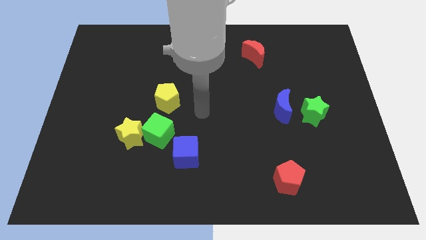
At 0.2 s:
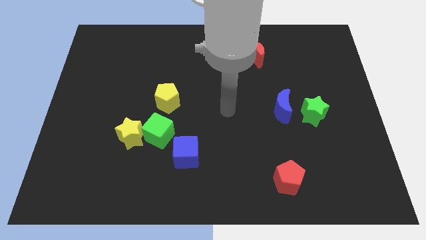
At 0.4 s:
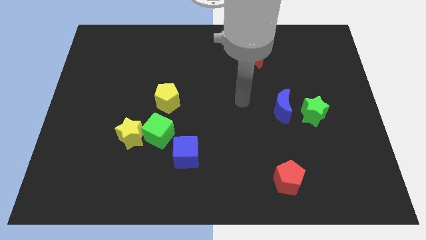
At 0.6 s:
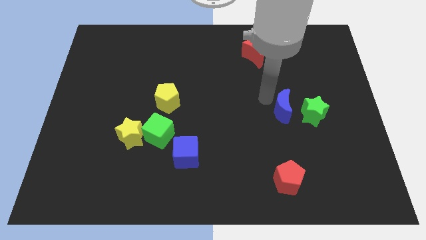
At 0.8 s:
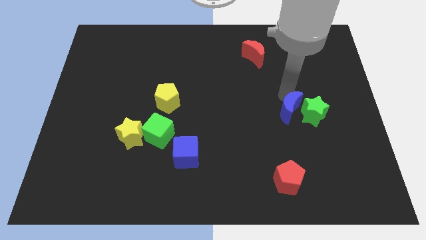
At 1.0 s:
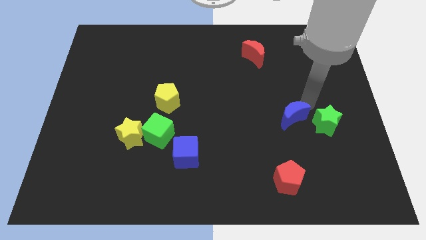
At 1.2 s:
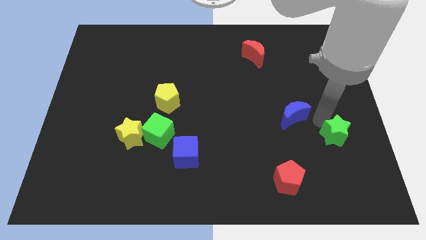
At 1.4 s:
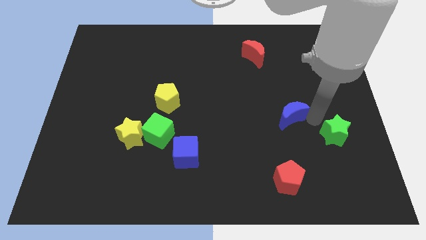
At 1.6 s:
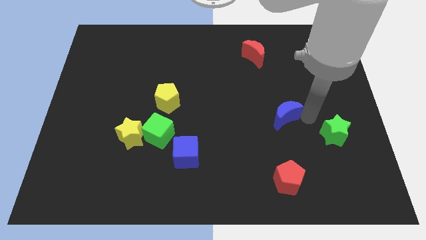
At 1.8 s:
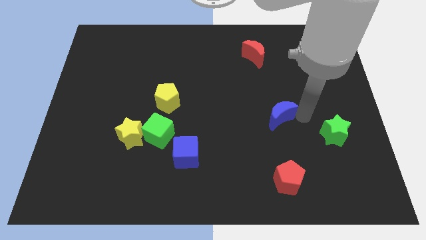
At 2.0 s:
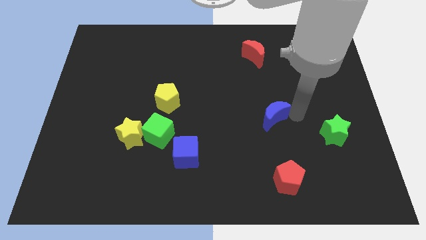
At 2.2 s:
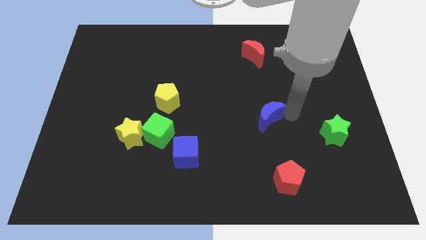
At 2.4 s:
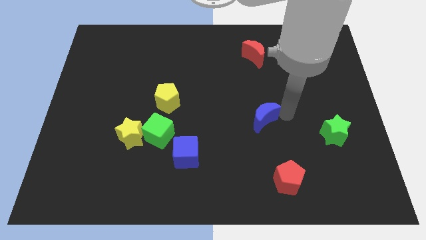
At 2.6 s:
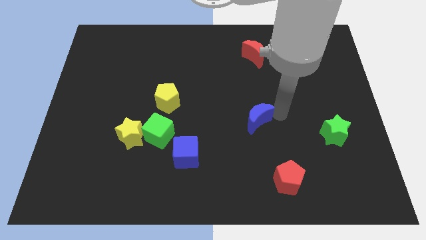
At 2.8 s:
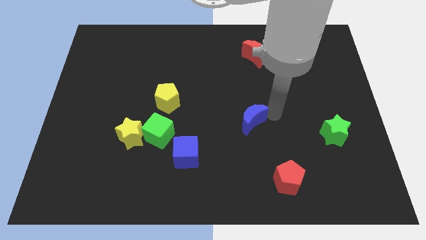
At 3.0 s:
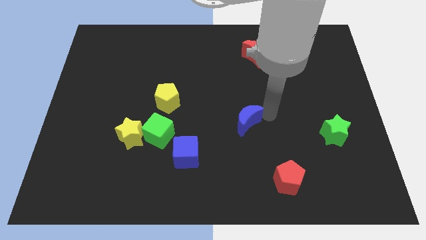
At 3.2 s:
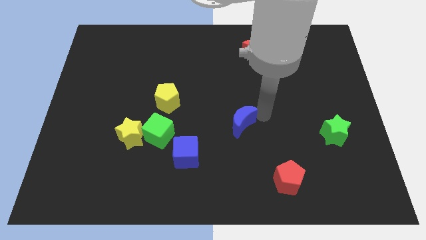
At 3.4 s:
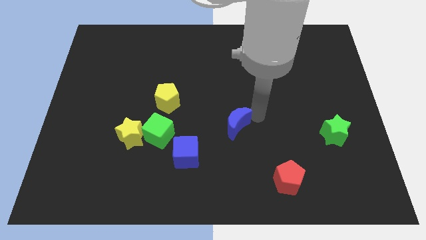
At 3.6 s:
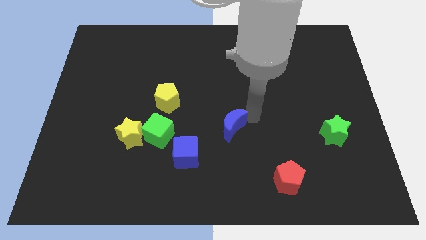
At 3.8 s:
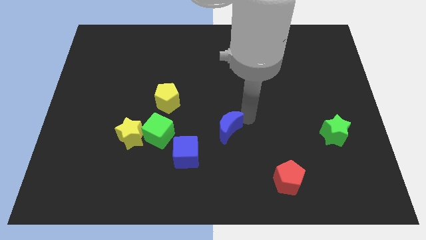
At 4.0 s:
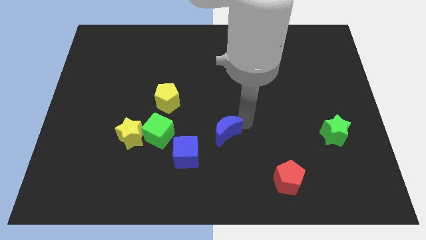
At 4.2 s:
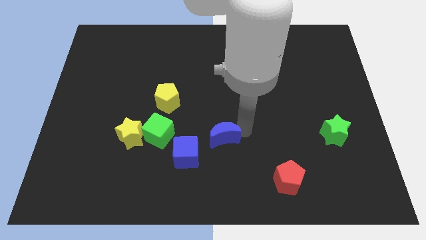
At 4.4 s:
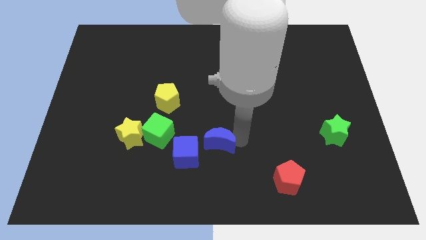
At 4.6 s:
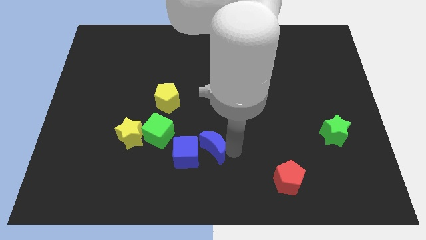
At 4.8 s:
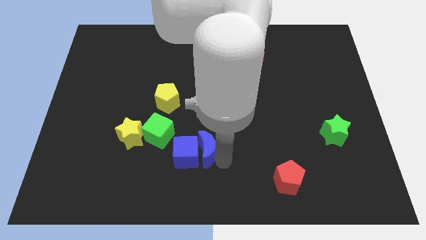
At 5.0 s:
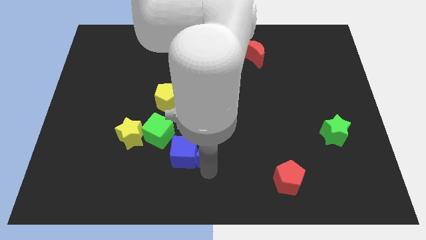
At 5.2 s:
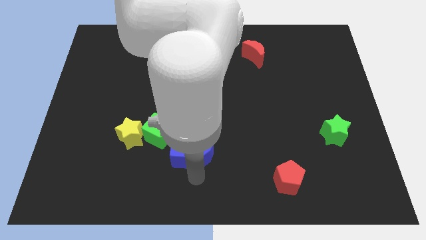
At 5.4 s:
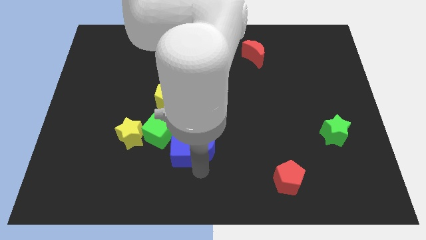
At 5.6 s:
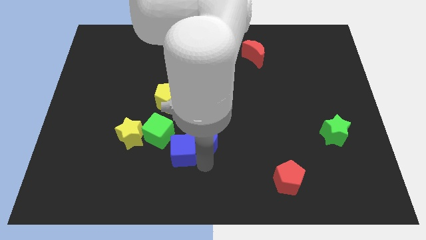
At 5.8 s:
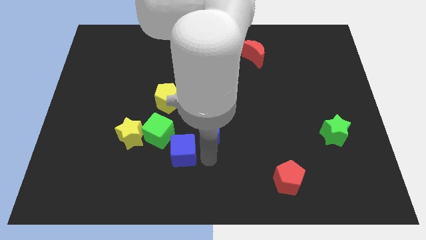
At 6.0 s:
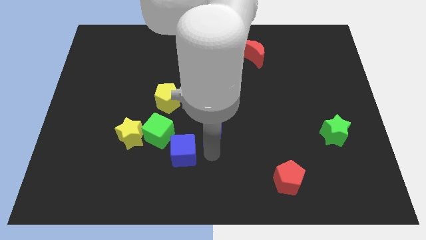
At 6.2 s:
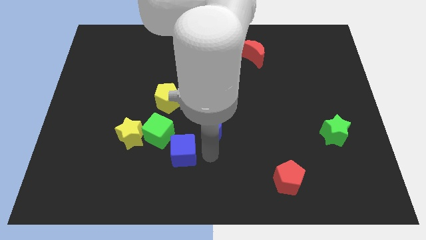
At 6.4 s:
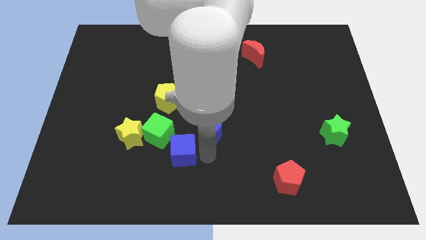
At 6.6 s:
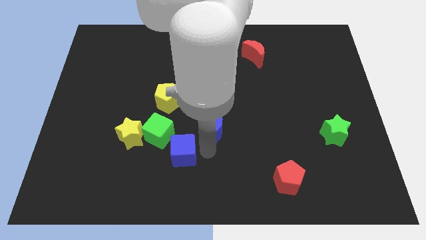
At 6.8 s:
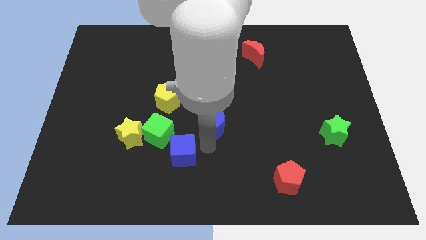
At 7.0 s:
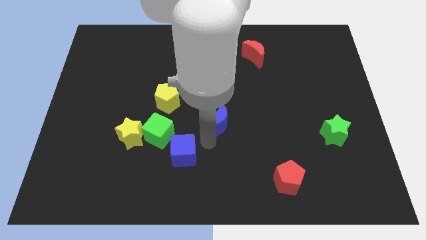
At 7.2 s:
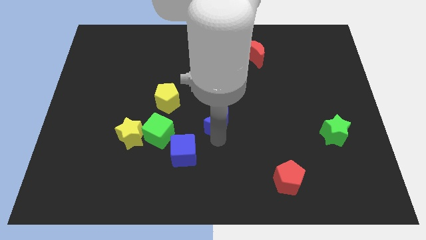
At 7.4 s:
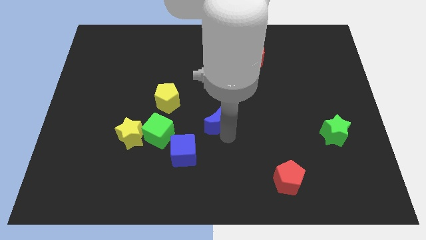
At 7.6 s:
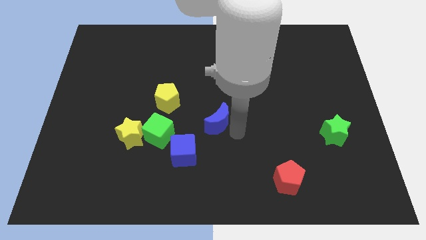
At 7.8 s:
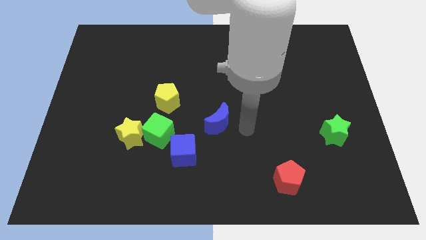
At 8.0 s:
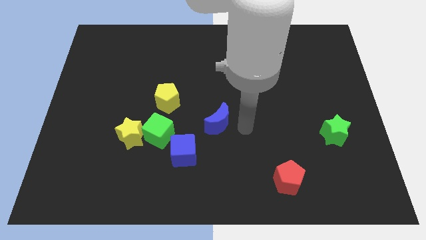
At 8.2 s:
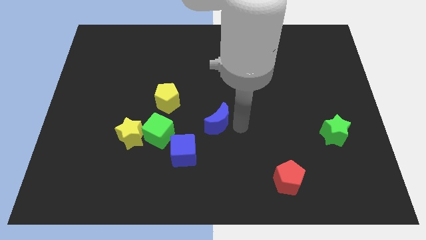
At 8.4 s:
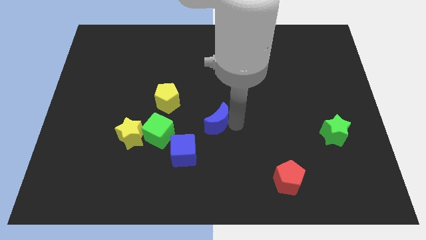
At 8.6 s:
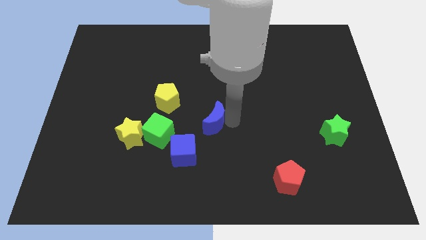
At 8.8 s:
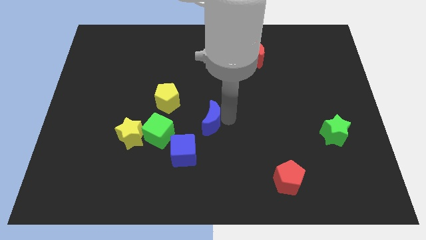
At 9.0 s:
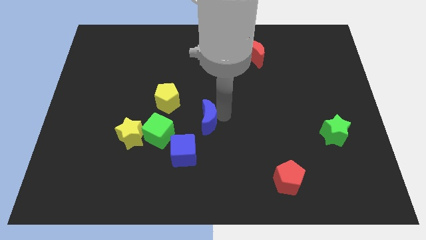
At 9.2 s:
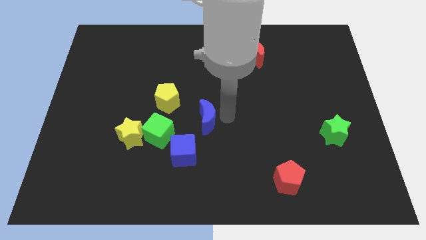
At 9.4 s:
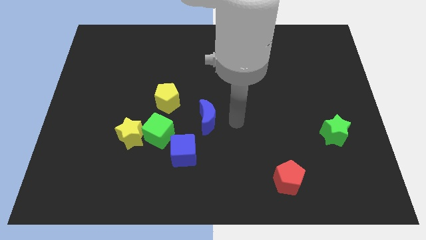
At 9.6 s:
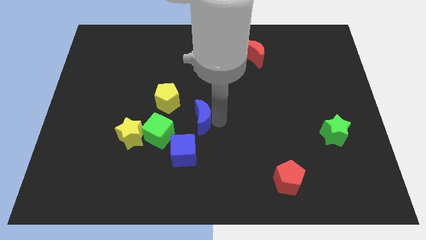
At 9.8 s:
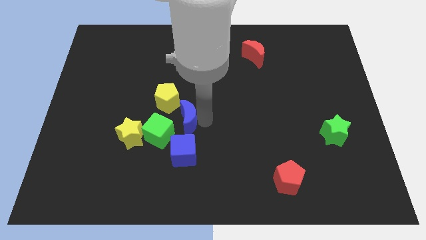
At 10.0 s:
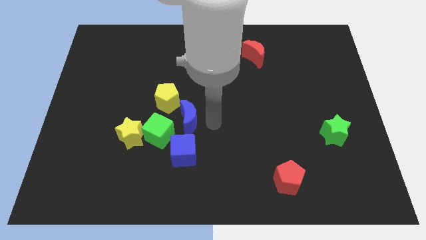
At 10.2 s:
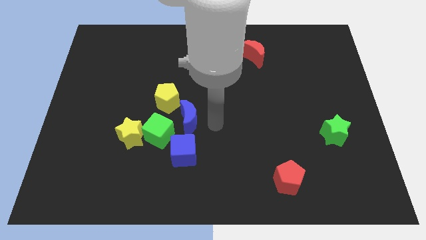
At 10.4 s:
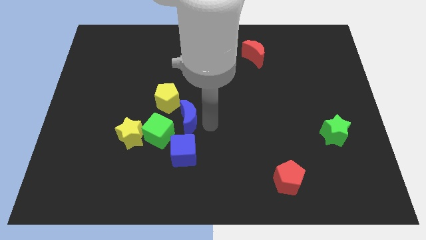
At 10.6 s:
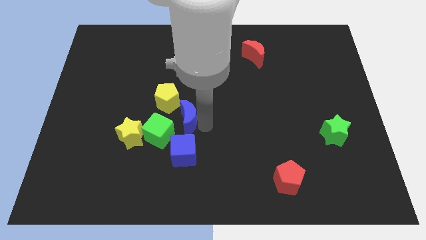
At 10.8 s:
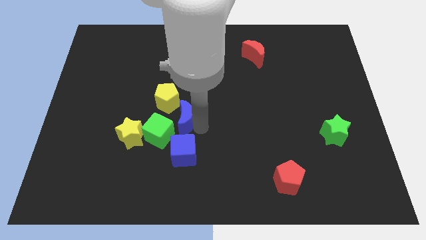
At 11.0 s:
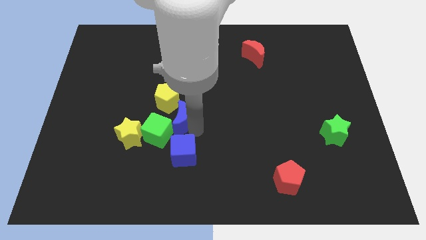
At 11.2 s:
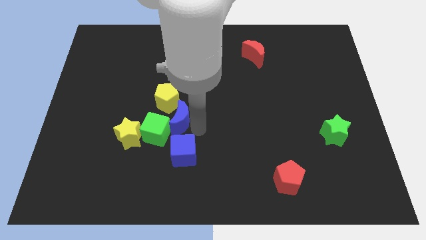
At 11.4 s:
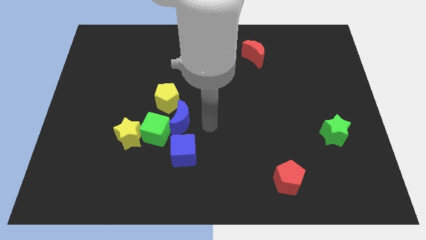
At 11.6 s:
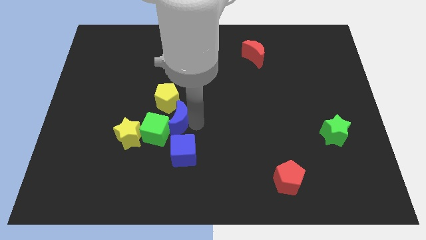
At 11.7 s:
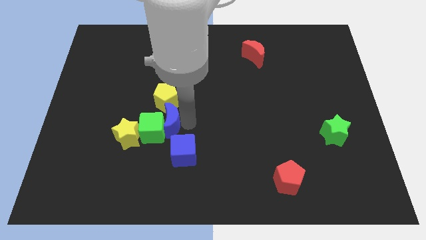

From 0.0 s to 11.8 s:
slide the blue moon to the top right side of the yellow star
